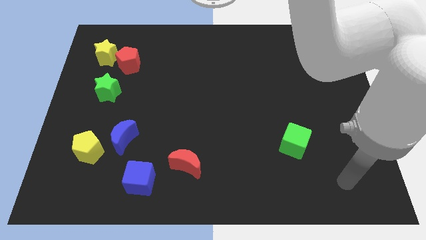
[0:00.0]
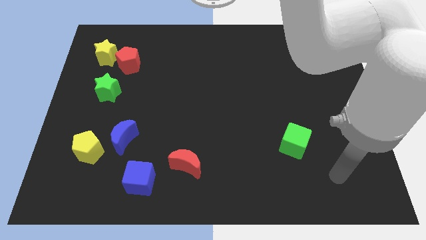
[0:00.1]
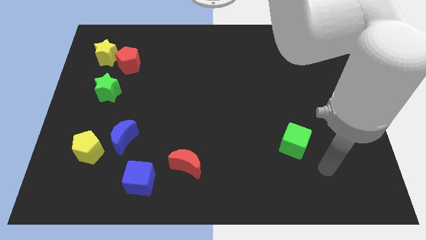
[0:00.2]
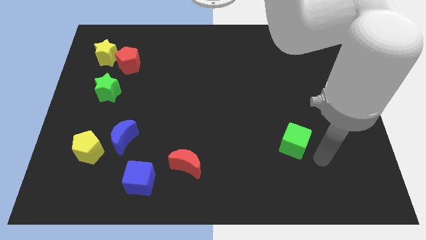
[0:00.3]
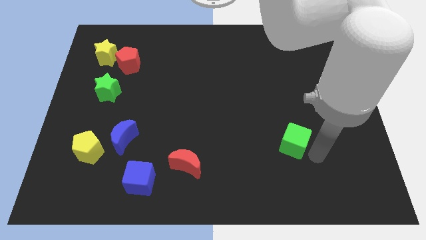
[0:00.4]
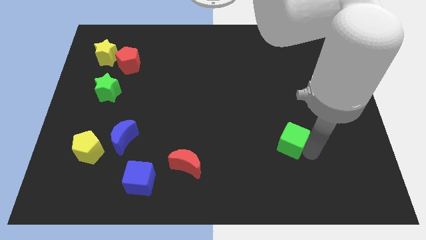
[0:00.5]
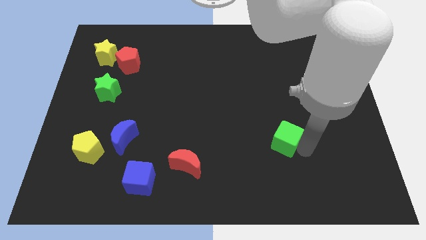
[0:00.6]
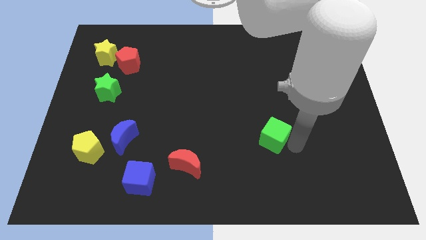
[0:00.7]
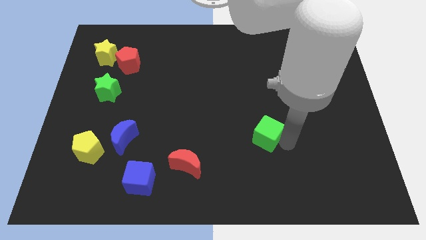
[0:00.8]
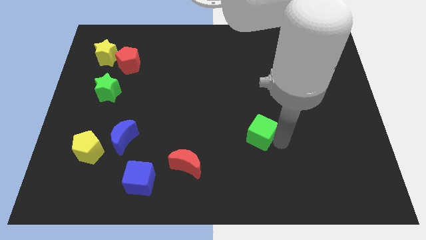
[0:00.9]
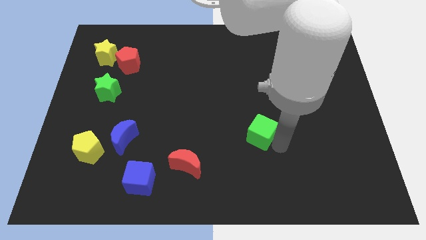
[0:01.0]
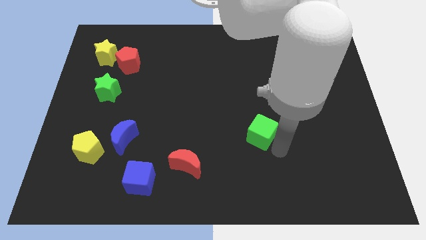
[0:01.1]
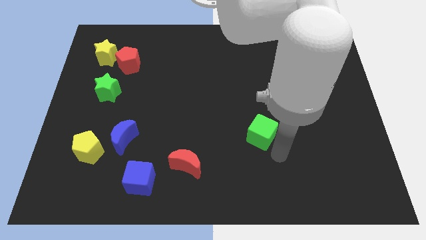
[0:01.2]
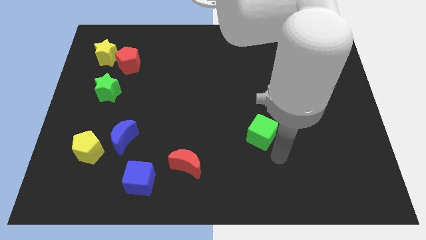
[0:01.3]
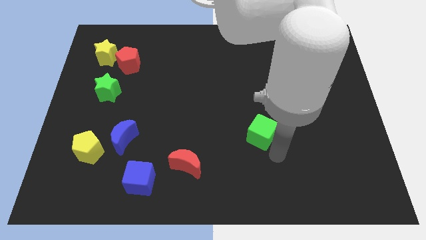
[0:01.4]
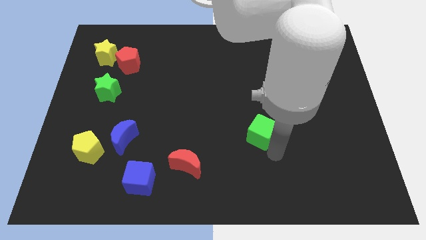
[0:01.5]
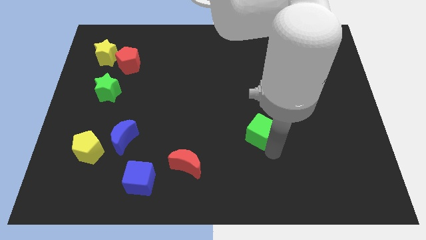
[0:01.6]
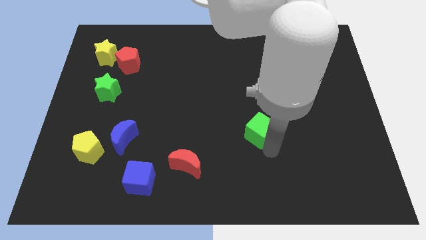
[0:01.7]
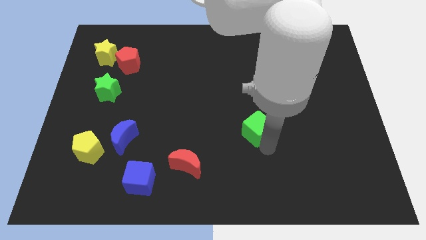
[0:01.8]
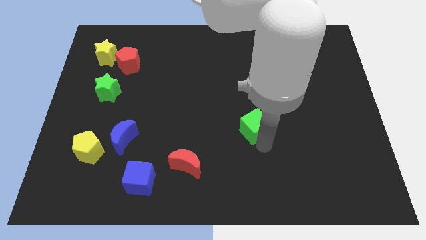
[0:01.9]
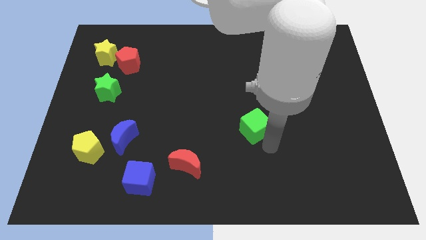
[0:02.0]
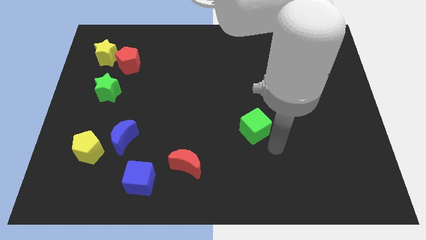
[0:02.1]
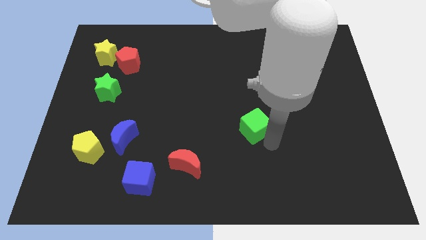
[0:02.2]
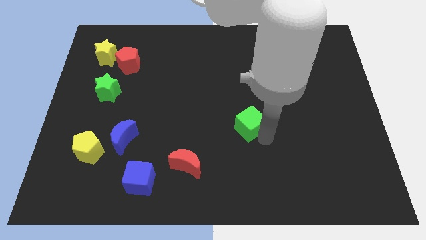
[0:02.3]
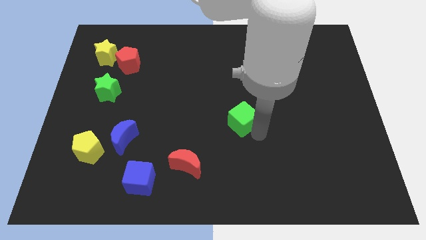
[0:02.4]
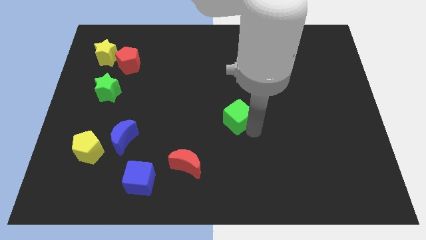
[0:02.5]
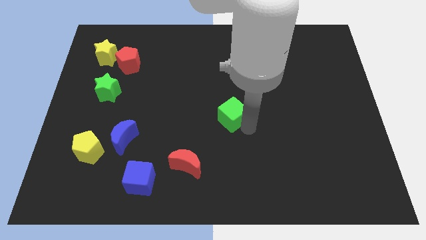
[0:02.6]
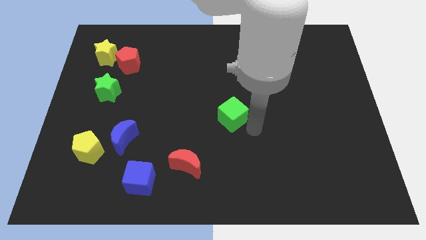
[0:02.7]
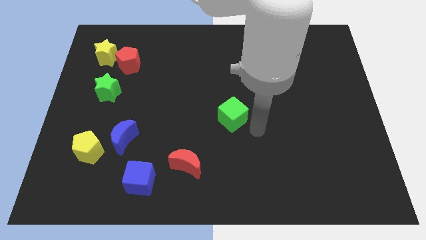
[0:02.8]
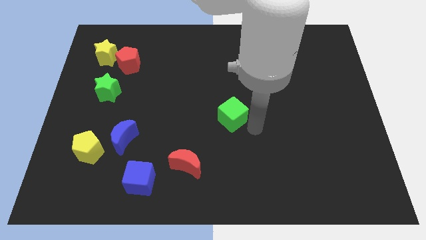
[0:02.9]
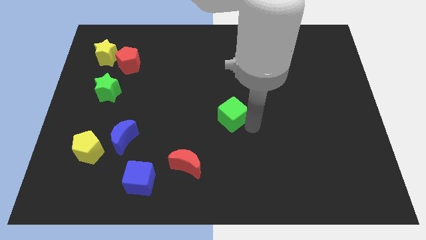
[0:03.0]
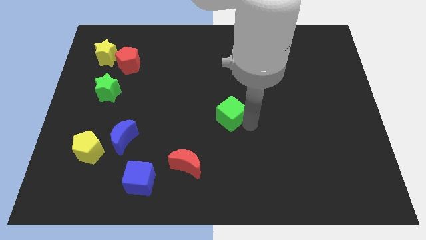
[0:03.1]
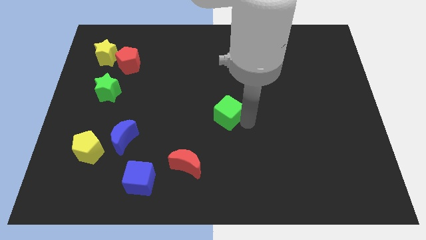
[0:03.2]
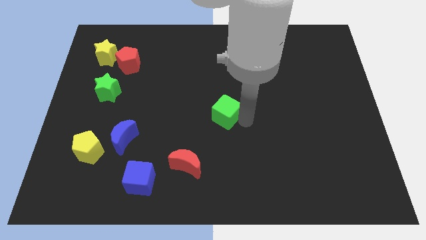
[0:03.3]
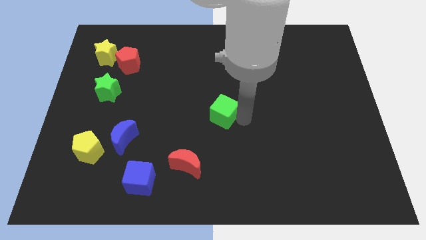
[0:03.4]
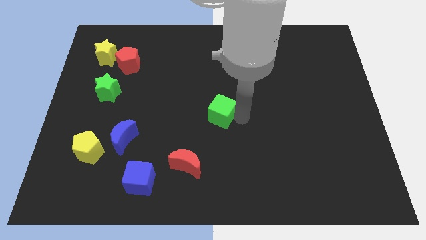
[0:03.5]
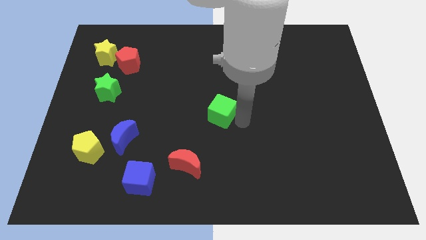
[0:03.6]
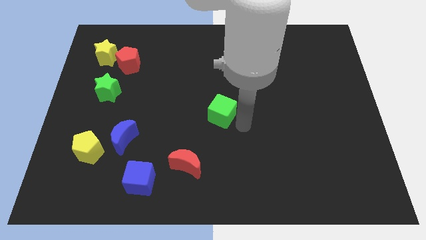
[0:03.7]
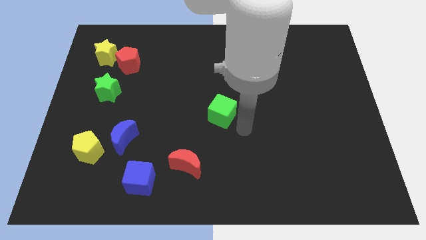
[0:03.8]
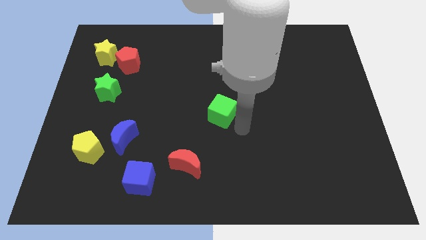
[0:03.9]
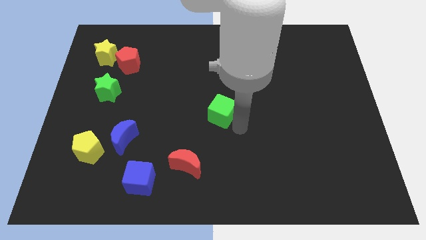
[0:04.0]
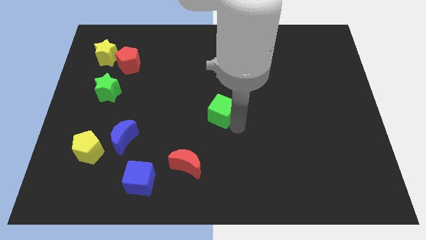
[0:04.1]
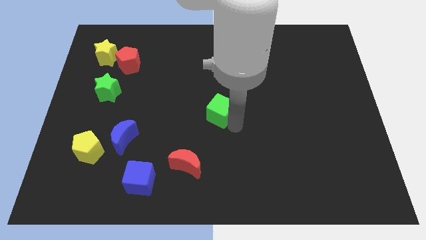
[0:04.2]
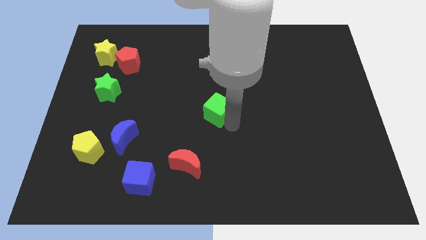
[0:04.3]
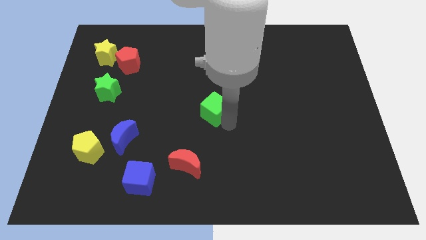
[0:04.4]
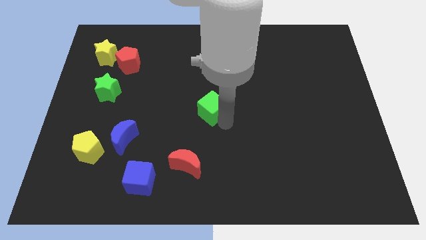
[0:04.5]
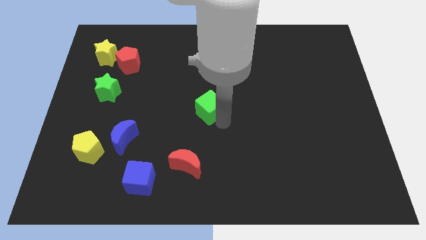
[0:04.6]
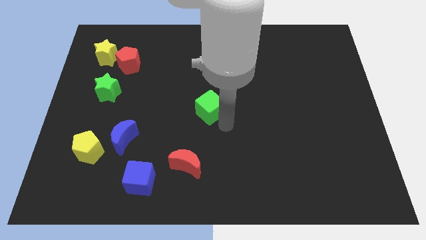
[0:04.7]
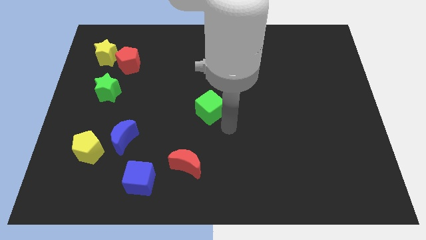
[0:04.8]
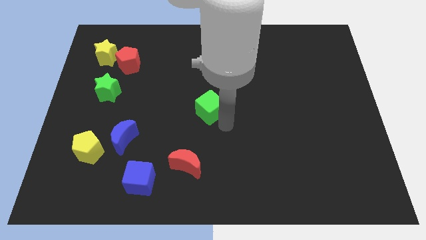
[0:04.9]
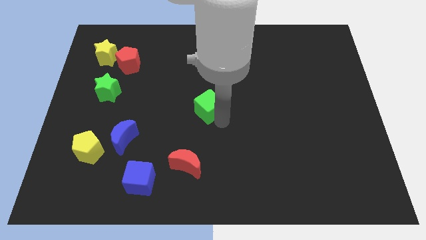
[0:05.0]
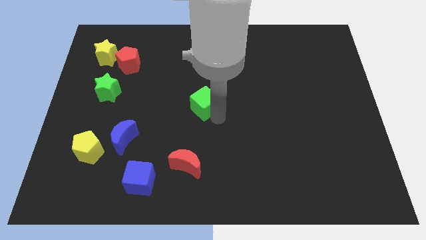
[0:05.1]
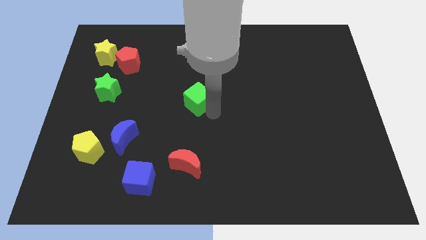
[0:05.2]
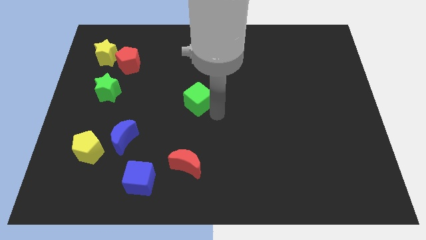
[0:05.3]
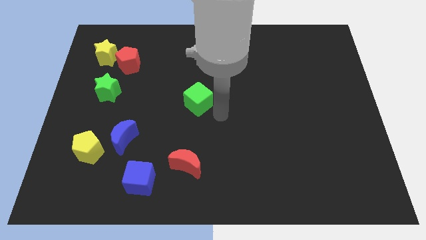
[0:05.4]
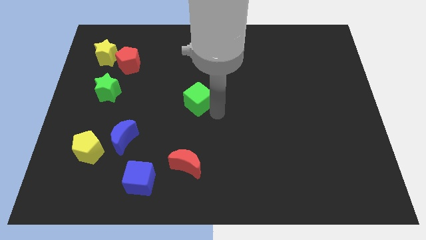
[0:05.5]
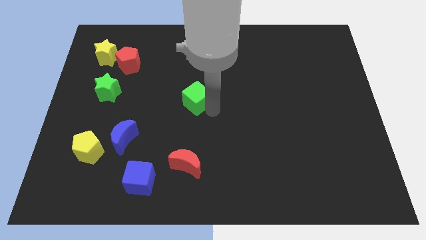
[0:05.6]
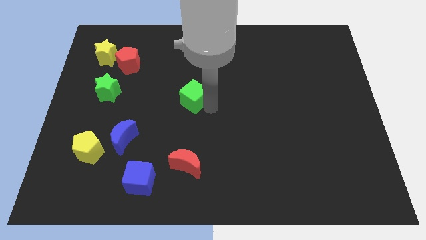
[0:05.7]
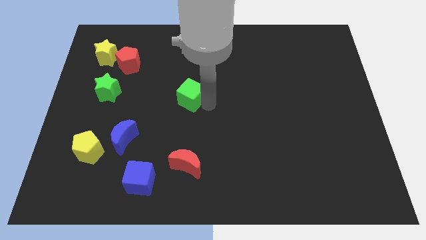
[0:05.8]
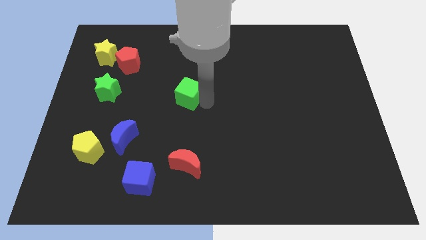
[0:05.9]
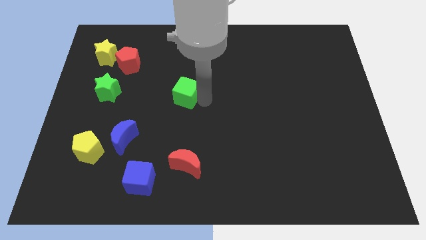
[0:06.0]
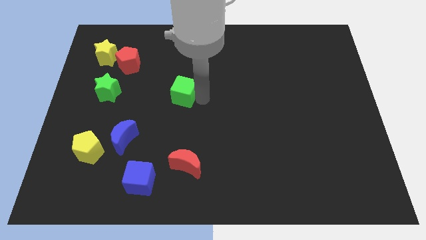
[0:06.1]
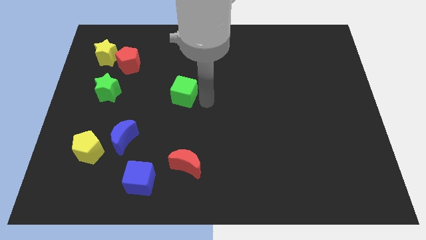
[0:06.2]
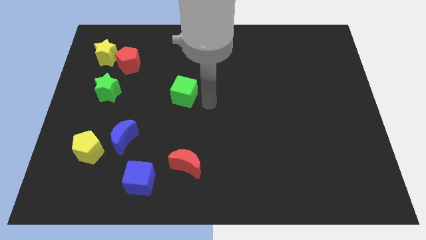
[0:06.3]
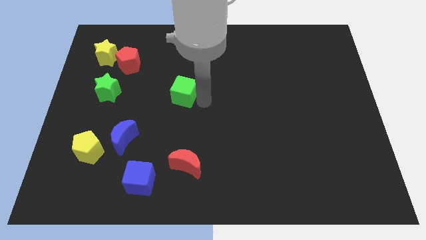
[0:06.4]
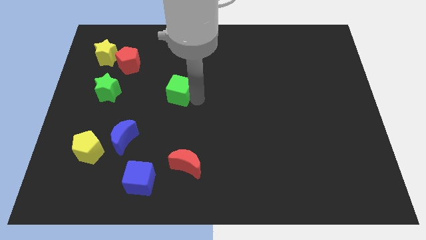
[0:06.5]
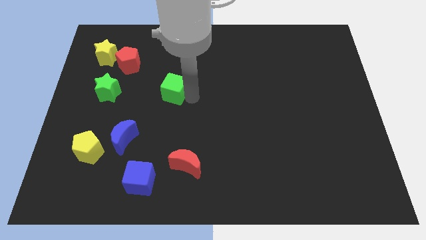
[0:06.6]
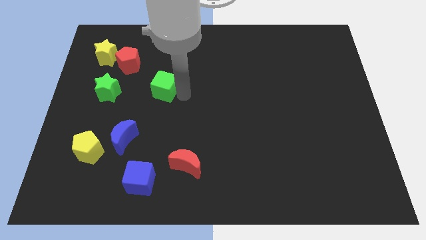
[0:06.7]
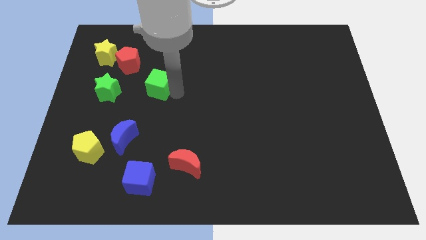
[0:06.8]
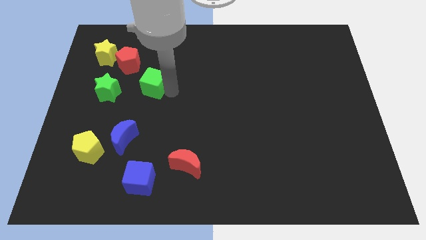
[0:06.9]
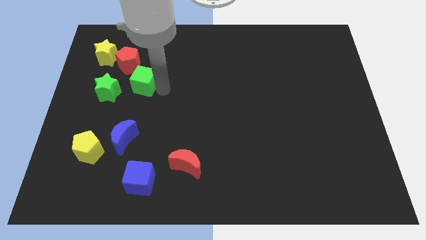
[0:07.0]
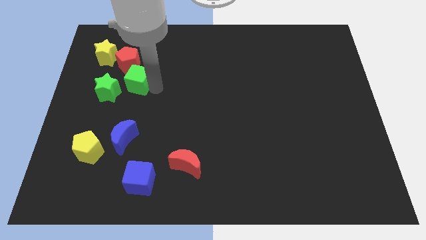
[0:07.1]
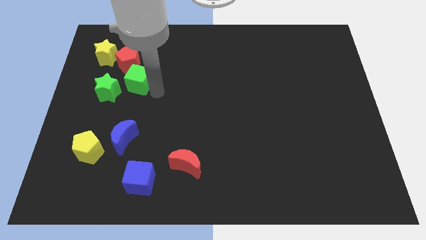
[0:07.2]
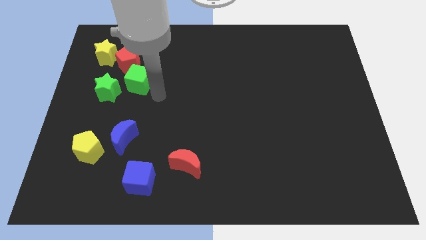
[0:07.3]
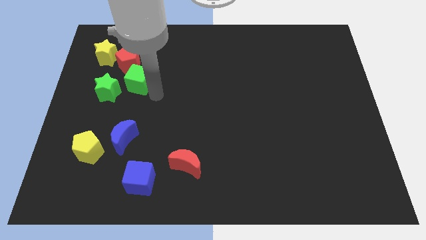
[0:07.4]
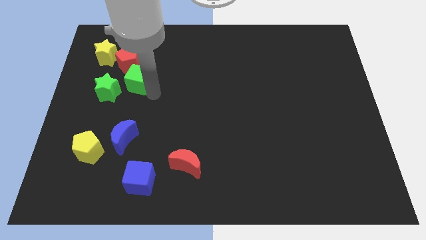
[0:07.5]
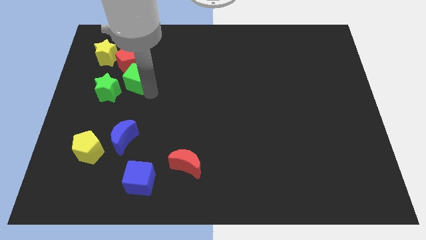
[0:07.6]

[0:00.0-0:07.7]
push the green cube to the bottom right of the yellow star
